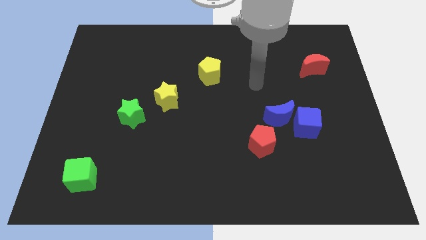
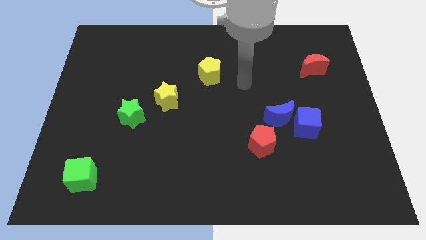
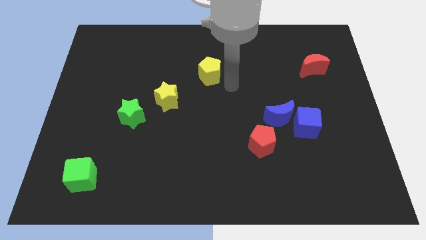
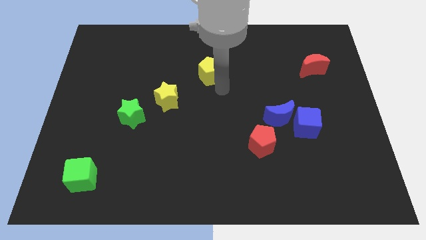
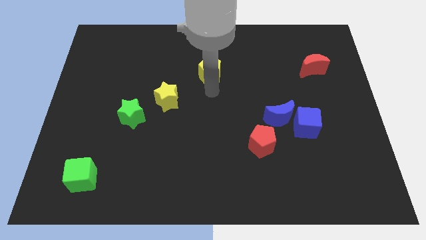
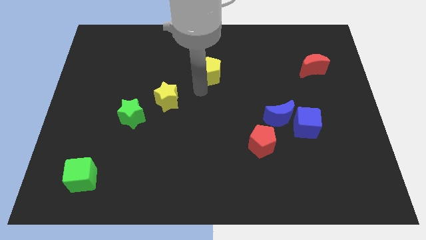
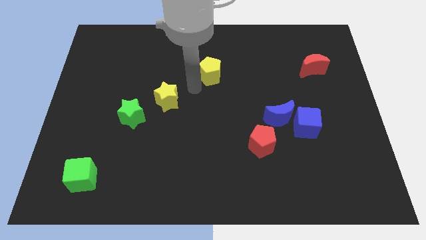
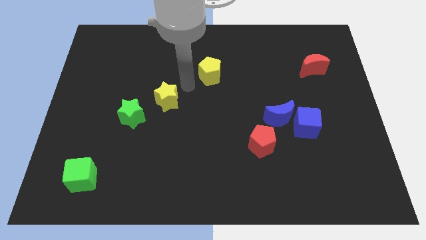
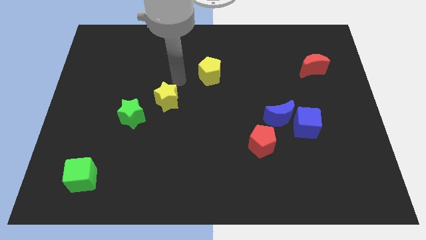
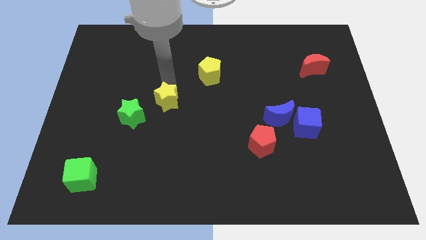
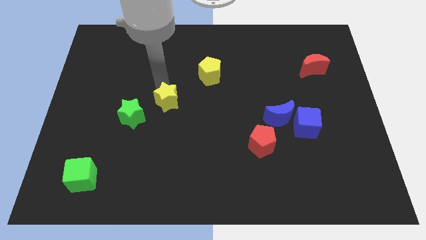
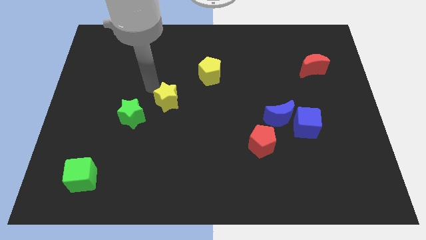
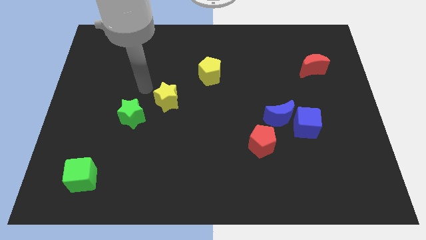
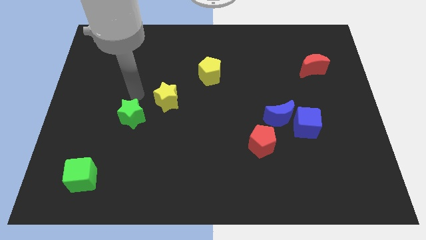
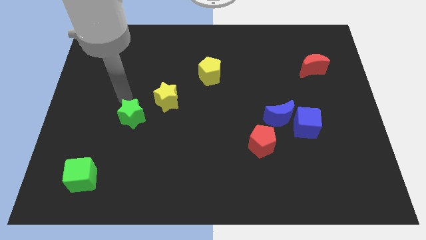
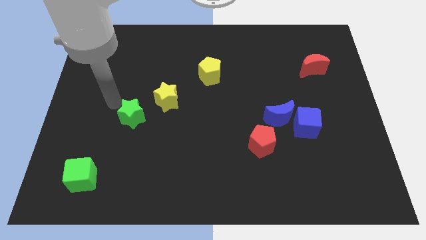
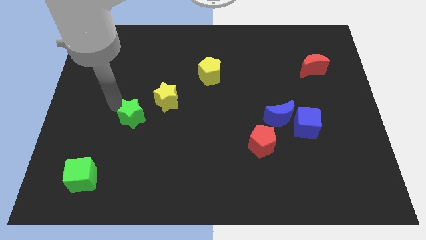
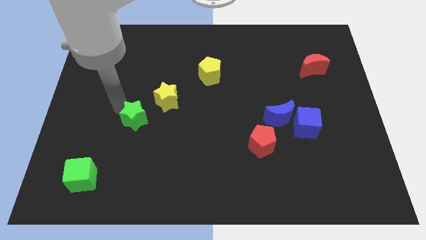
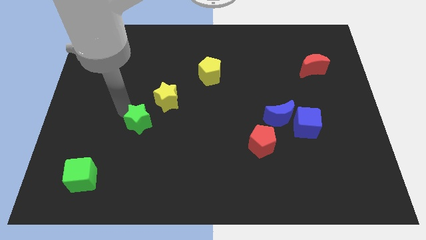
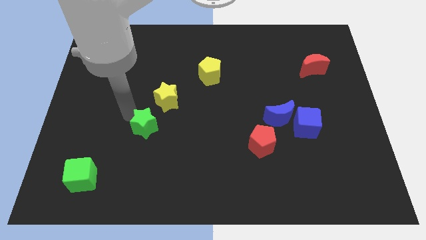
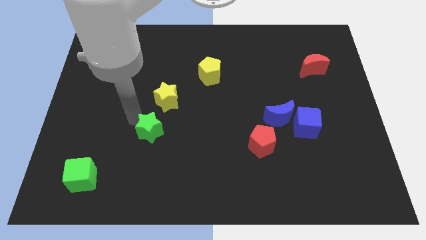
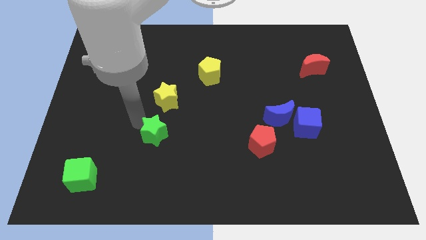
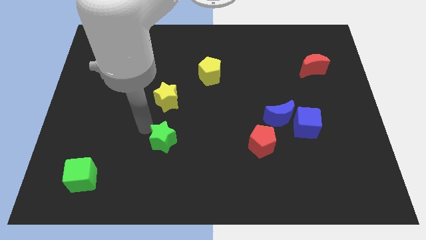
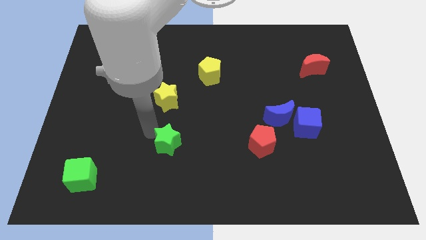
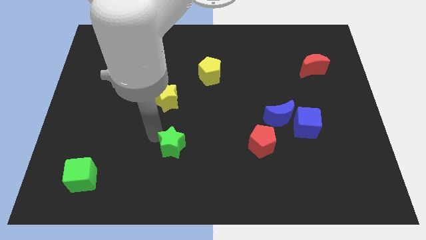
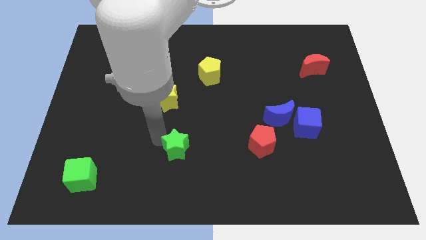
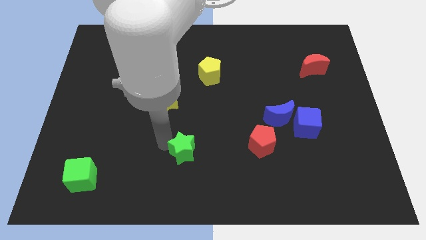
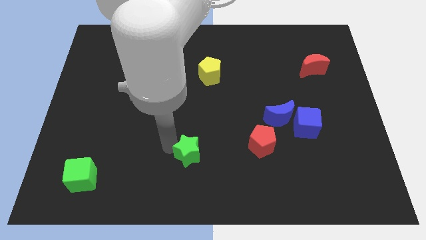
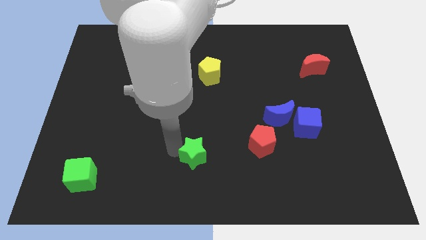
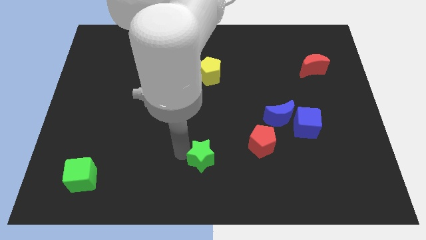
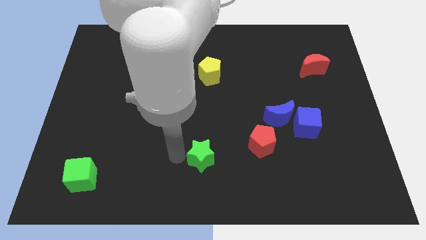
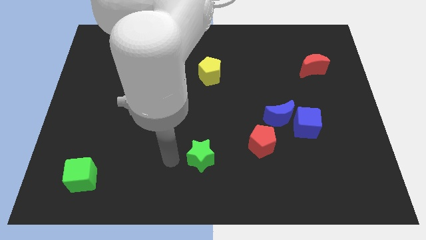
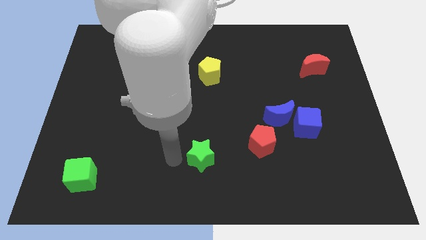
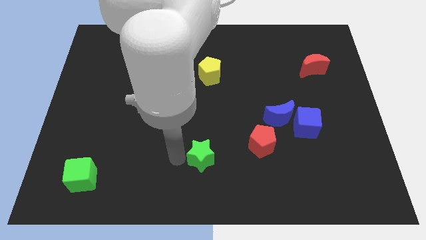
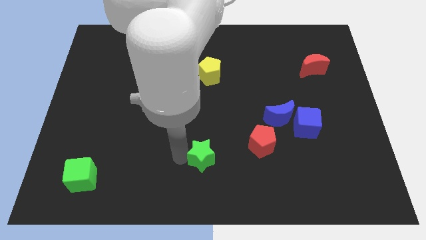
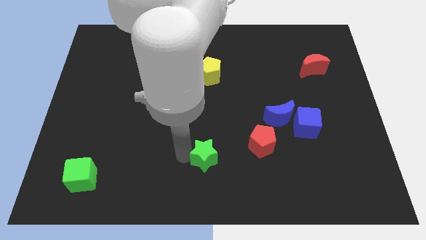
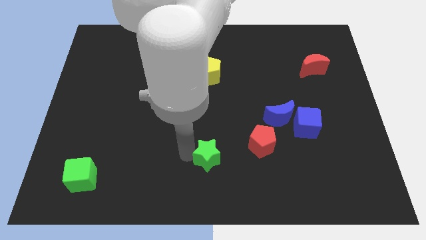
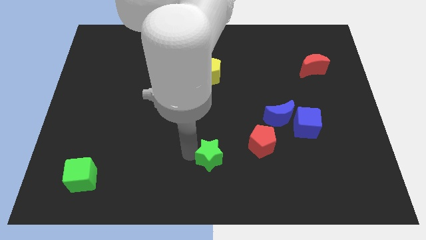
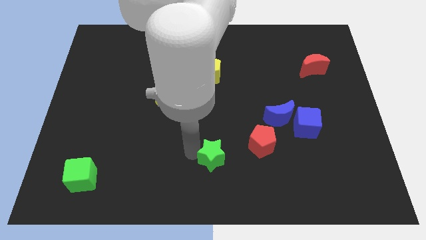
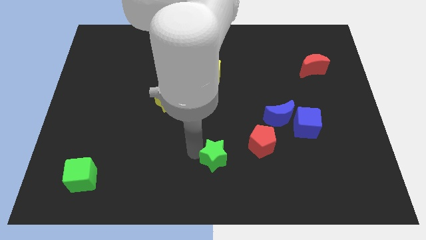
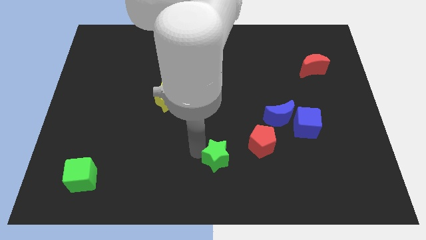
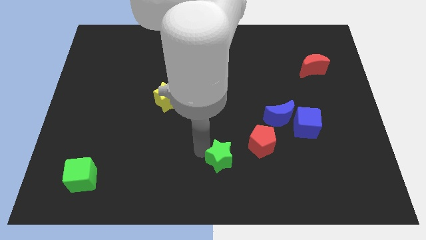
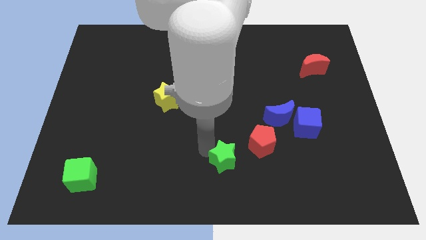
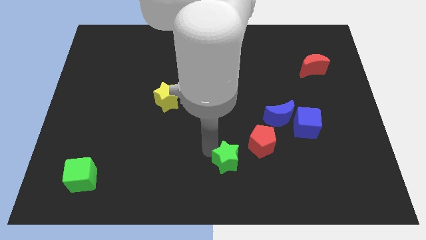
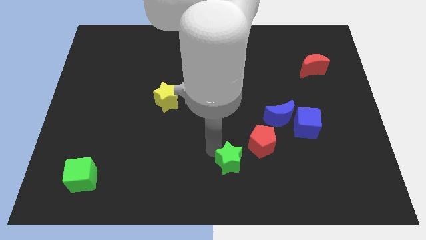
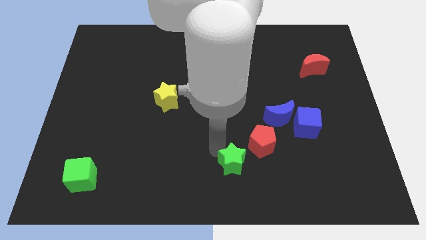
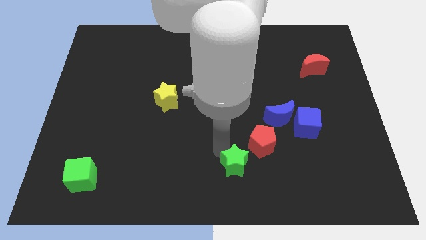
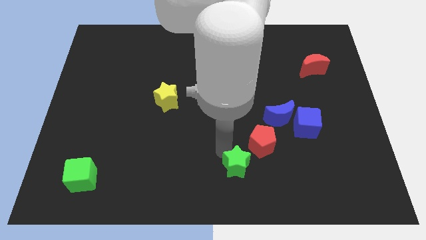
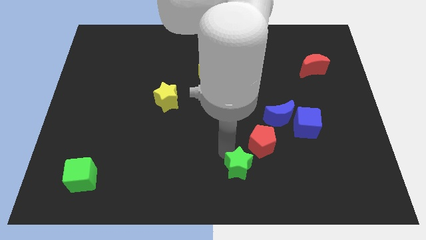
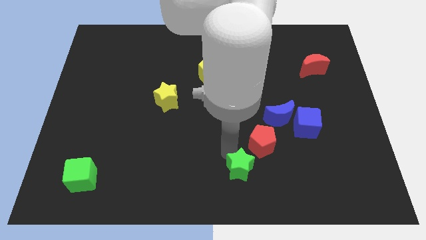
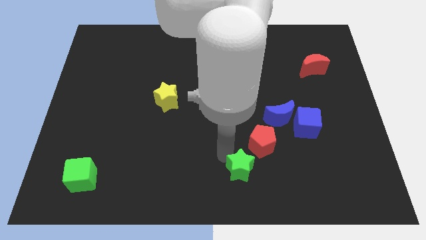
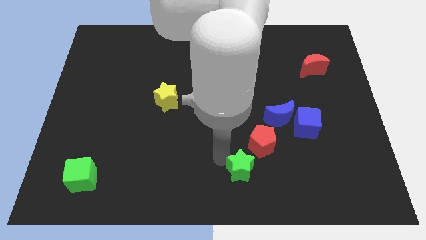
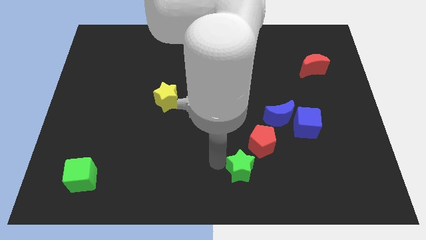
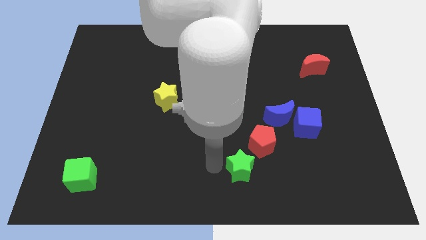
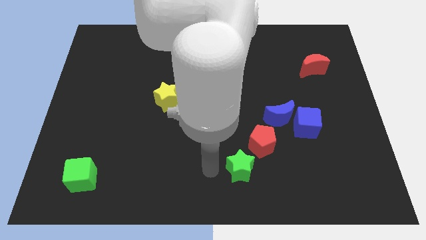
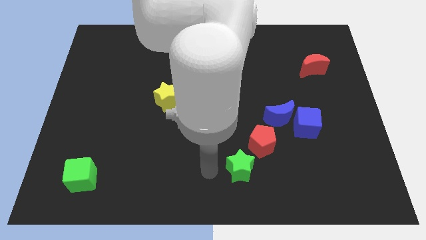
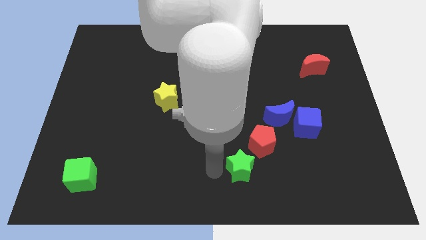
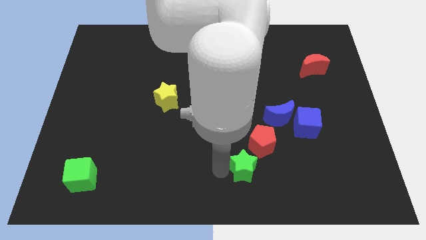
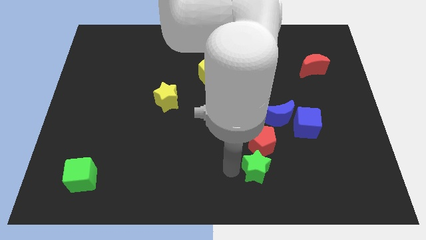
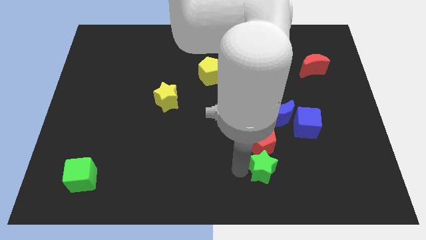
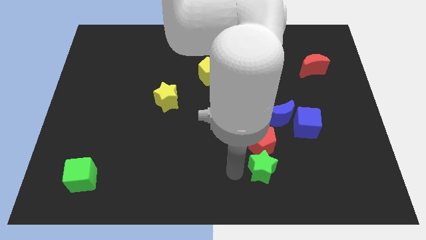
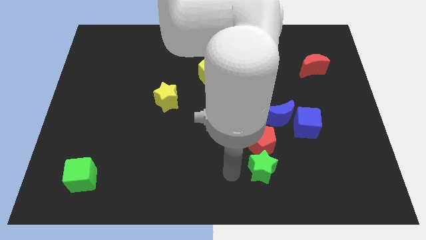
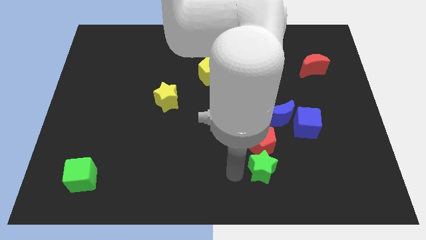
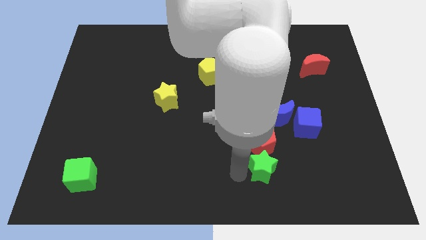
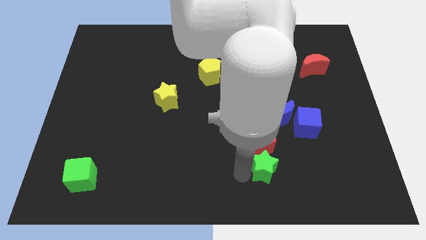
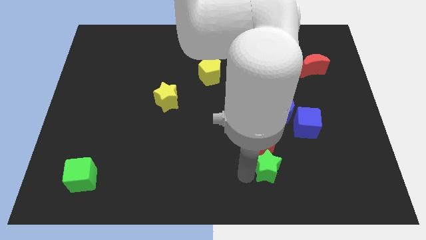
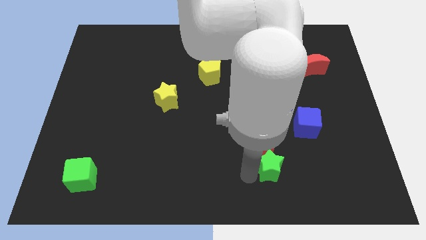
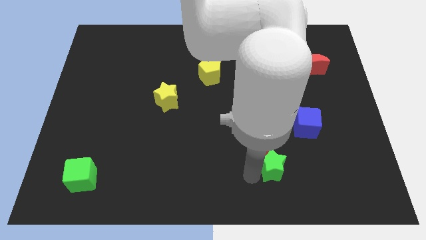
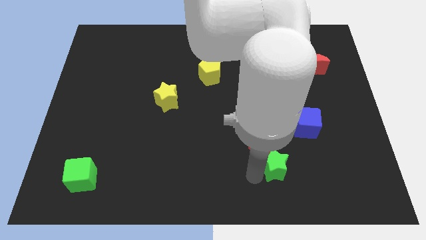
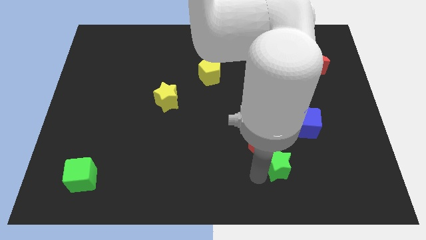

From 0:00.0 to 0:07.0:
put the green star diagonally down and to the left of the blue cube
